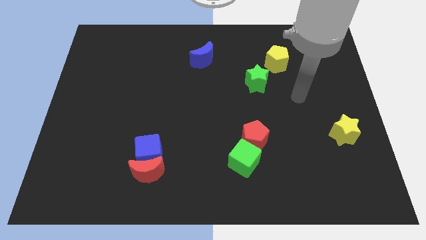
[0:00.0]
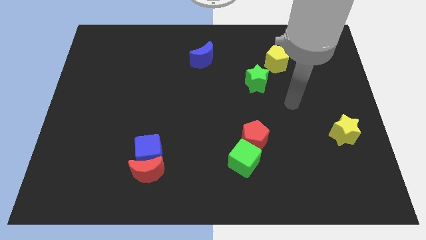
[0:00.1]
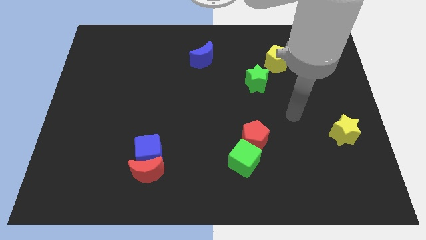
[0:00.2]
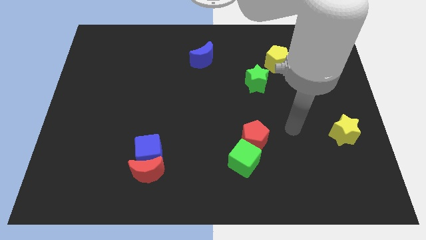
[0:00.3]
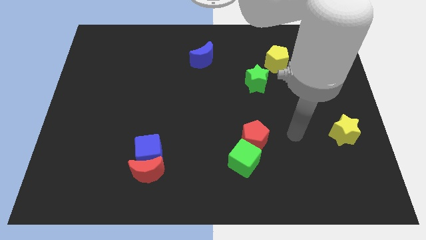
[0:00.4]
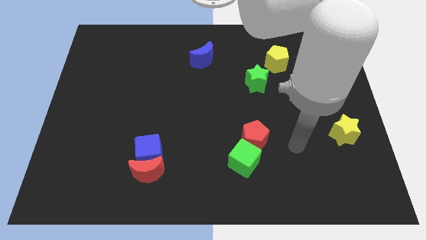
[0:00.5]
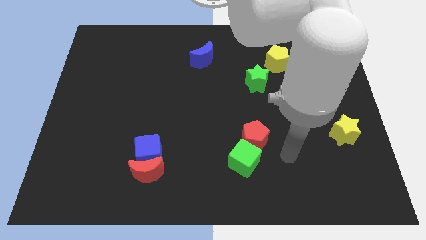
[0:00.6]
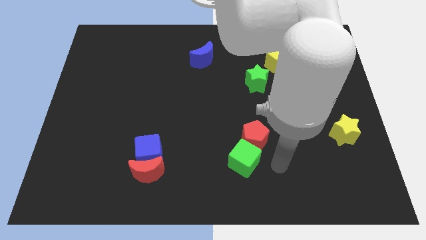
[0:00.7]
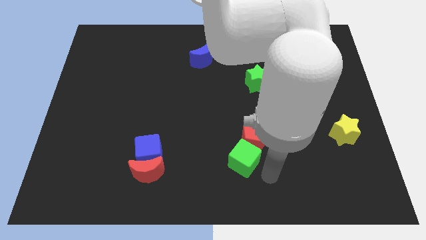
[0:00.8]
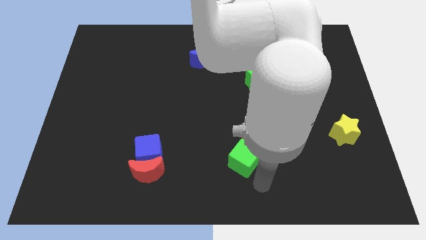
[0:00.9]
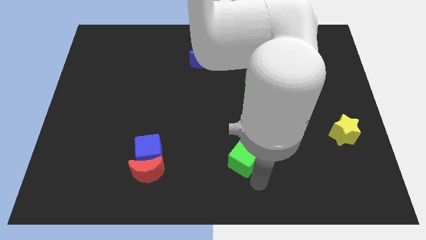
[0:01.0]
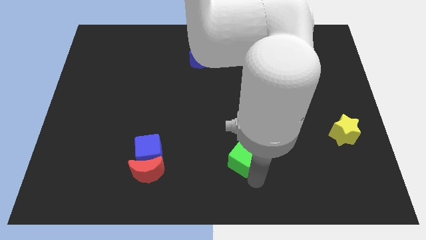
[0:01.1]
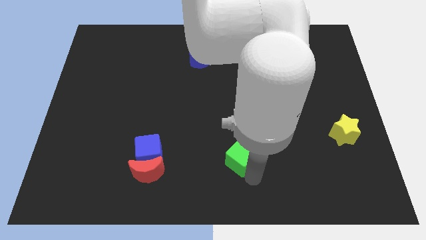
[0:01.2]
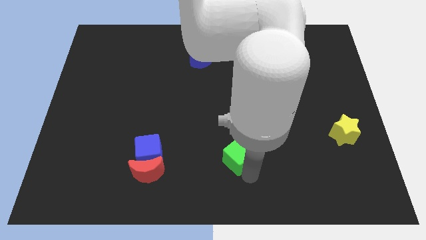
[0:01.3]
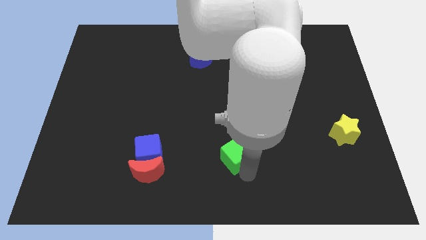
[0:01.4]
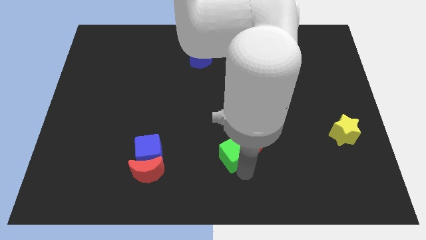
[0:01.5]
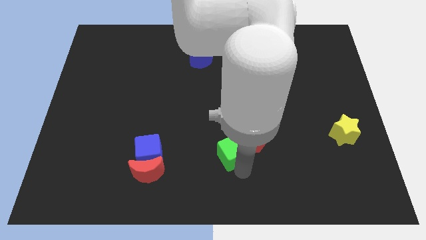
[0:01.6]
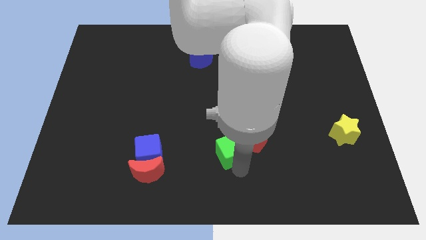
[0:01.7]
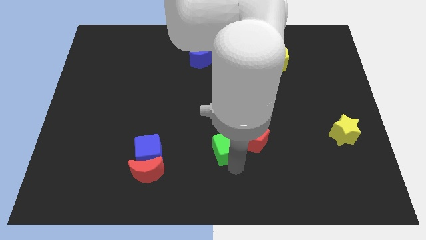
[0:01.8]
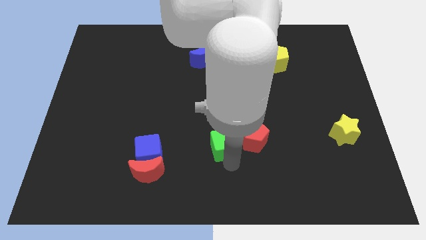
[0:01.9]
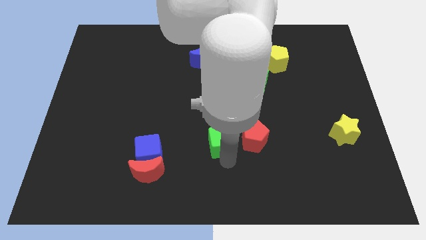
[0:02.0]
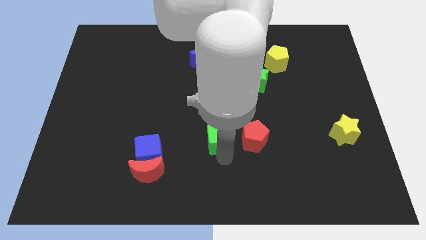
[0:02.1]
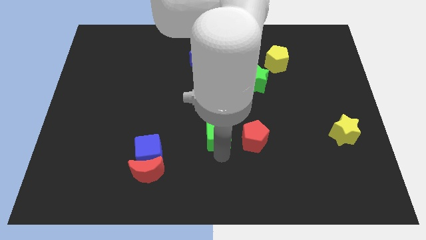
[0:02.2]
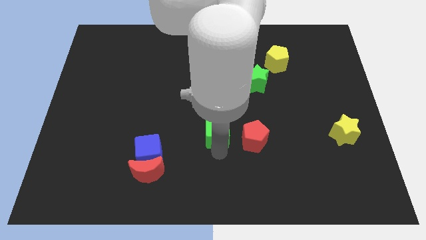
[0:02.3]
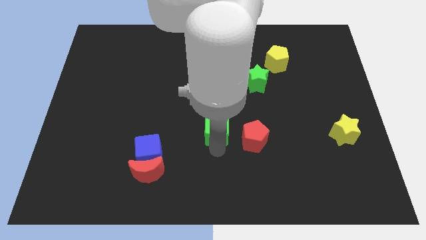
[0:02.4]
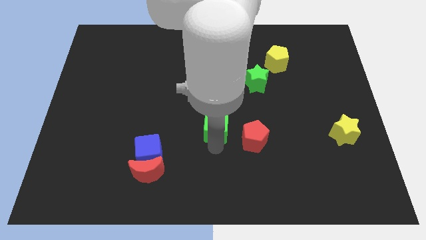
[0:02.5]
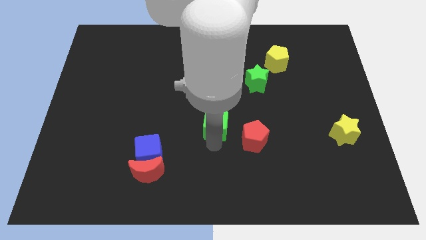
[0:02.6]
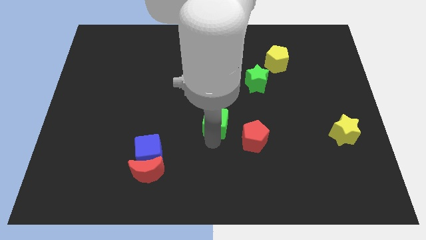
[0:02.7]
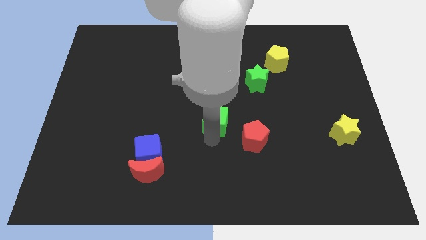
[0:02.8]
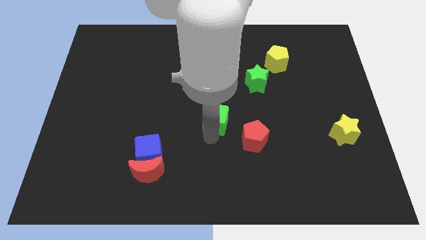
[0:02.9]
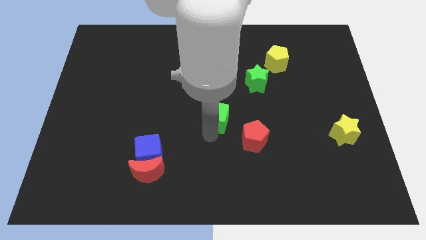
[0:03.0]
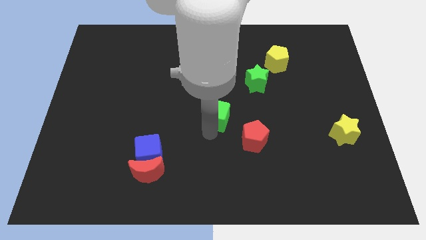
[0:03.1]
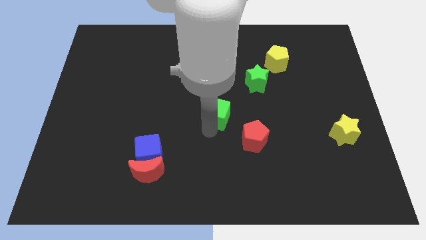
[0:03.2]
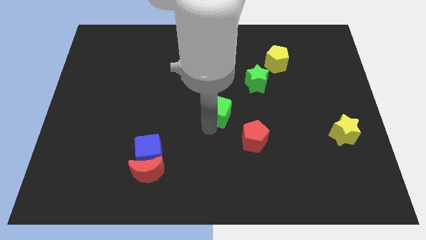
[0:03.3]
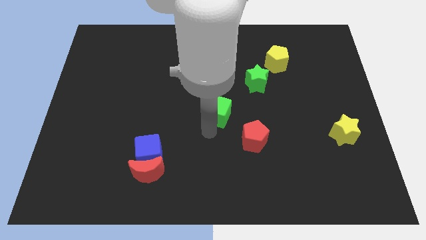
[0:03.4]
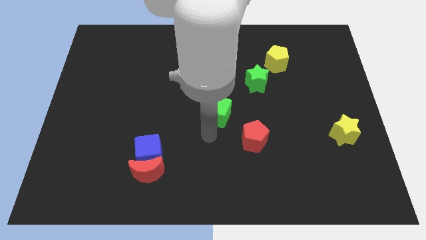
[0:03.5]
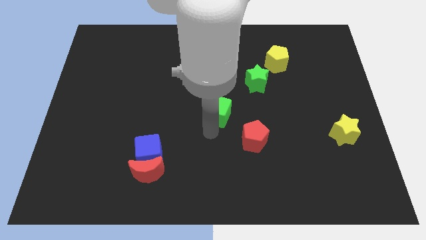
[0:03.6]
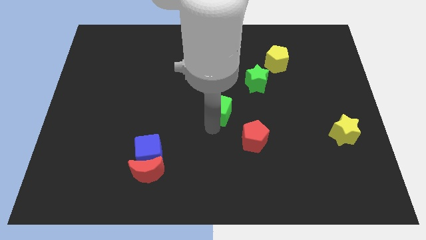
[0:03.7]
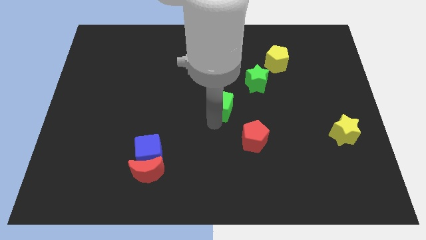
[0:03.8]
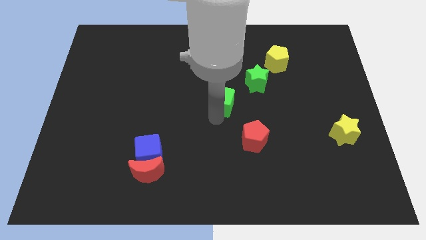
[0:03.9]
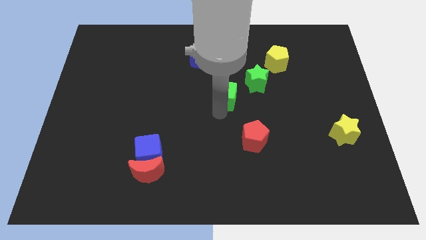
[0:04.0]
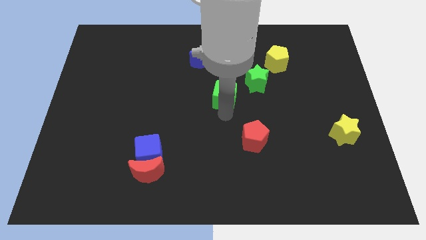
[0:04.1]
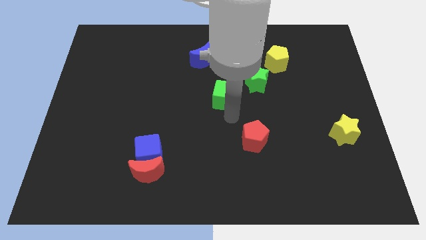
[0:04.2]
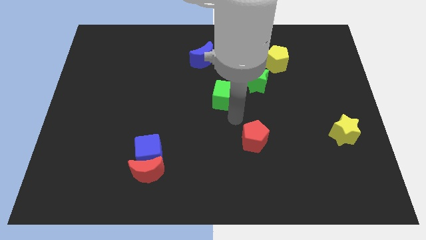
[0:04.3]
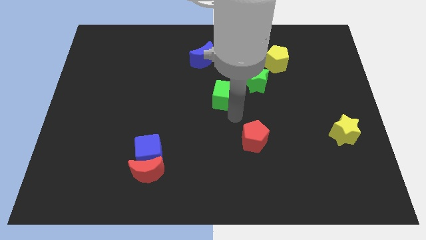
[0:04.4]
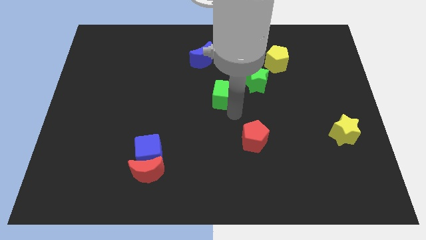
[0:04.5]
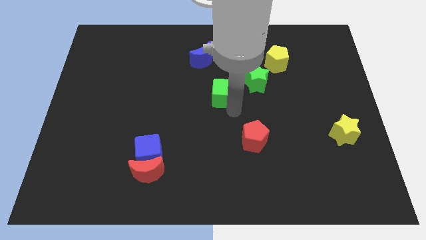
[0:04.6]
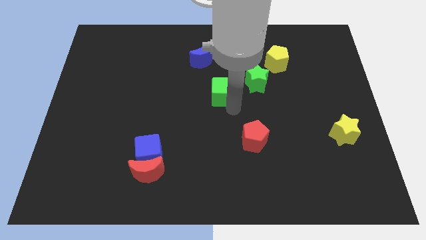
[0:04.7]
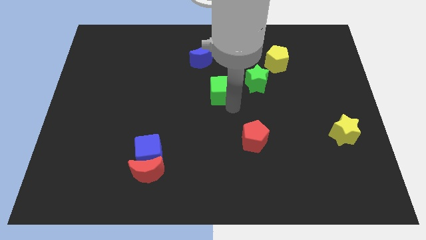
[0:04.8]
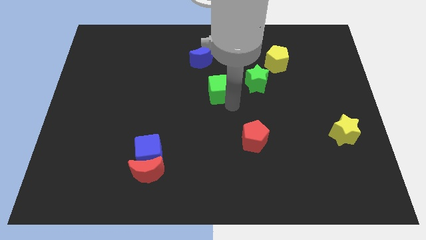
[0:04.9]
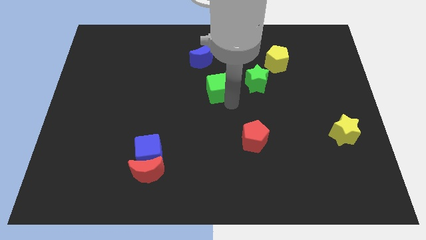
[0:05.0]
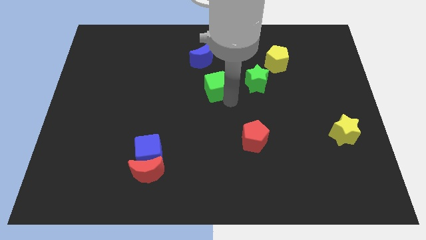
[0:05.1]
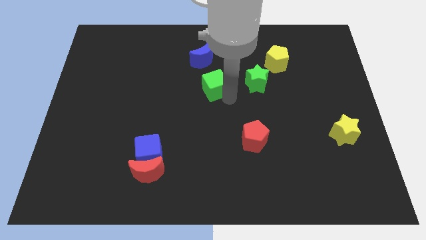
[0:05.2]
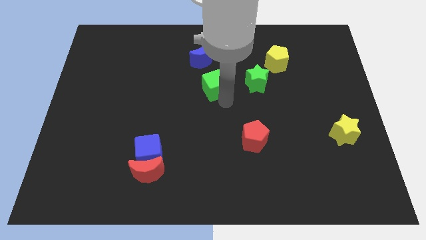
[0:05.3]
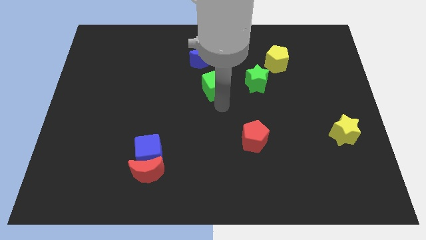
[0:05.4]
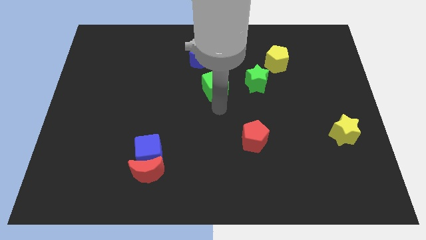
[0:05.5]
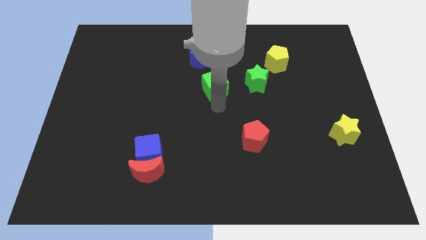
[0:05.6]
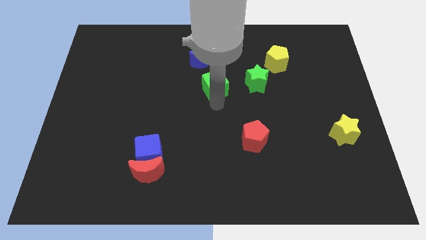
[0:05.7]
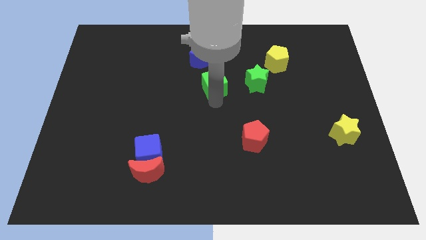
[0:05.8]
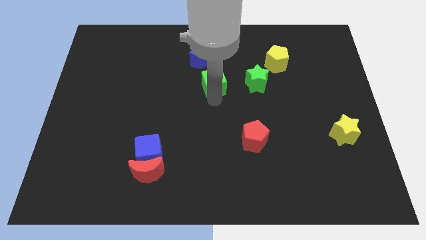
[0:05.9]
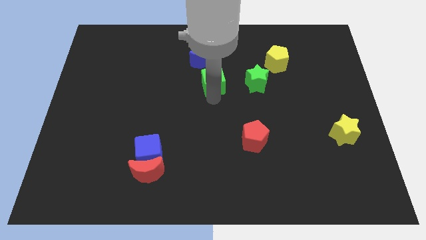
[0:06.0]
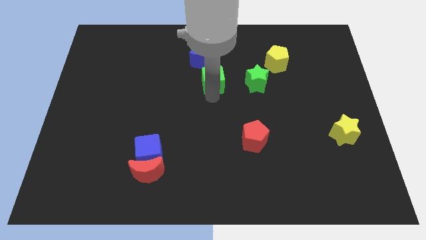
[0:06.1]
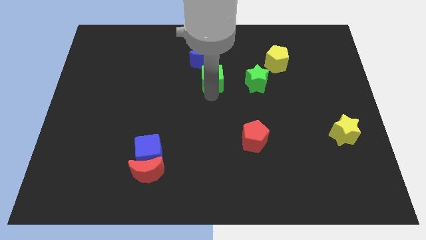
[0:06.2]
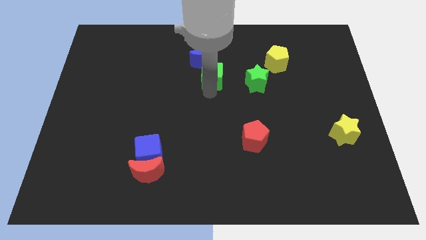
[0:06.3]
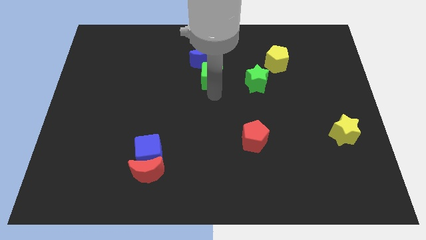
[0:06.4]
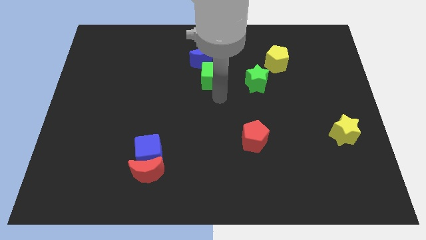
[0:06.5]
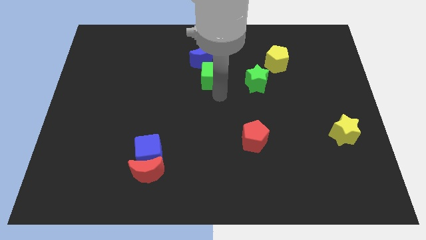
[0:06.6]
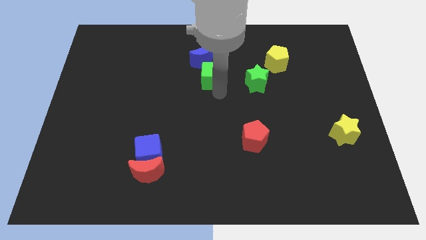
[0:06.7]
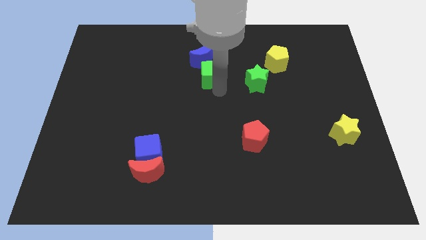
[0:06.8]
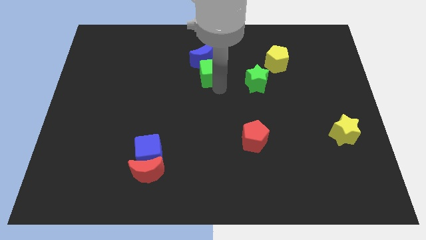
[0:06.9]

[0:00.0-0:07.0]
push the green cube towards the blue moon

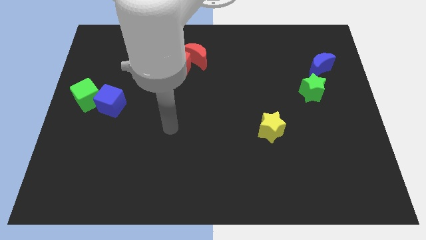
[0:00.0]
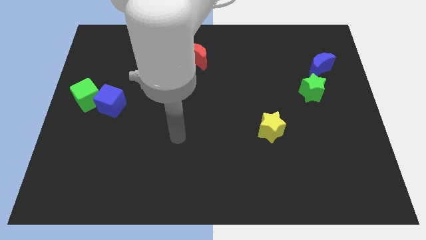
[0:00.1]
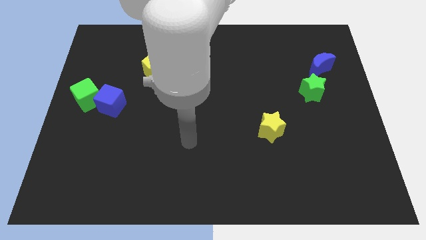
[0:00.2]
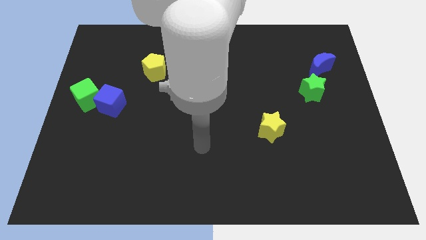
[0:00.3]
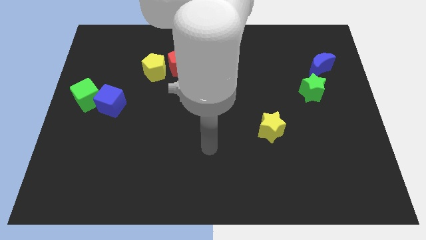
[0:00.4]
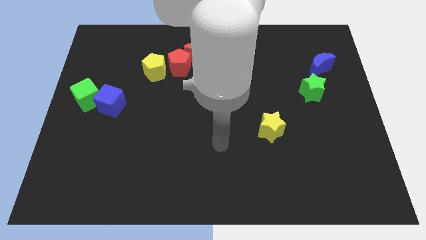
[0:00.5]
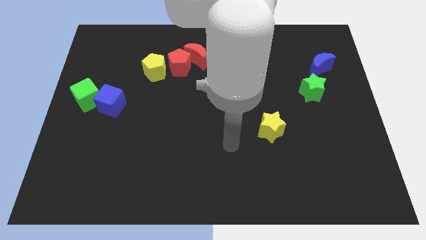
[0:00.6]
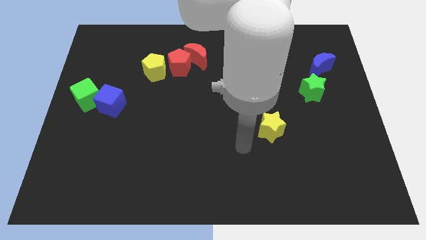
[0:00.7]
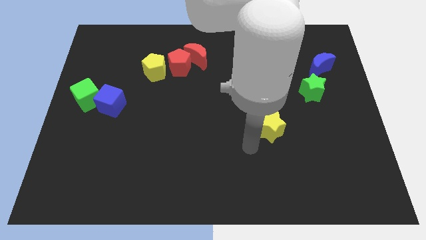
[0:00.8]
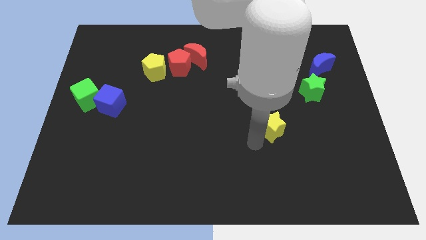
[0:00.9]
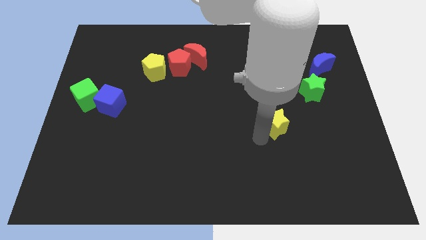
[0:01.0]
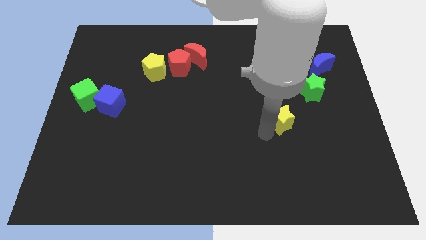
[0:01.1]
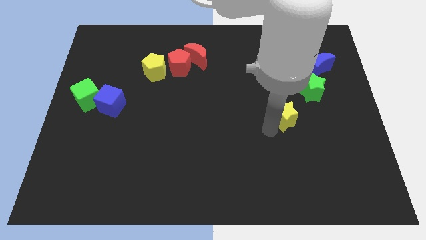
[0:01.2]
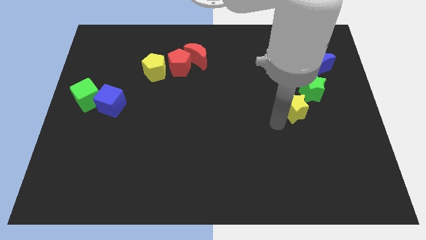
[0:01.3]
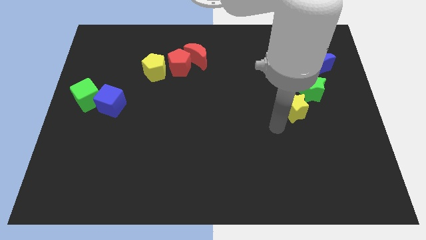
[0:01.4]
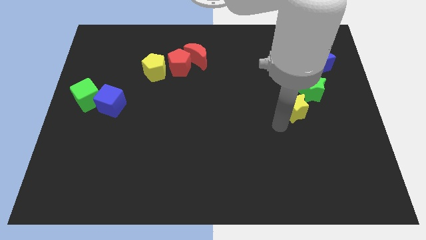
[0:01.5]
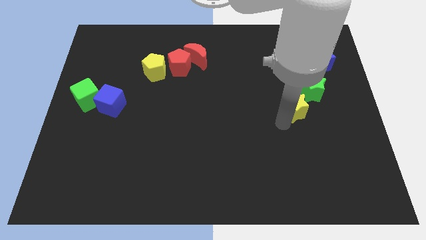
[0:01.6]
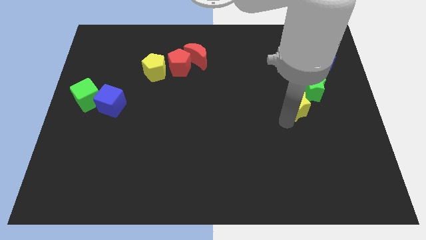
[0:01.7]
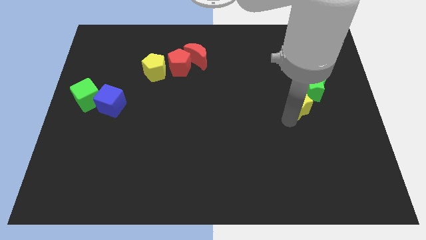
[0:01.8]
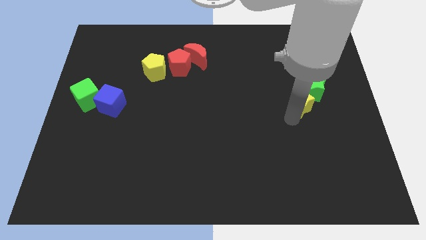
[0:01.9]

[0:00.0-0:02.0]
push the yellow star to the green star
